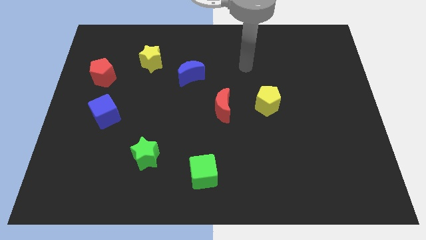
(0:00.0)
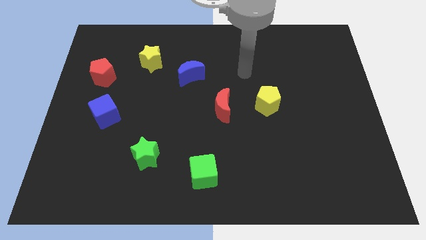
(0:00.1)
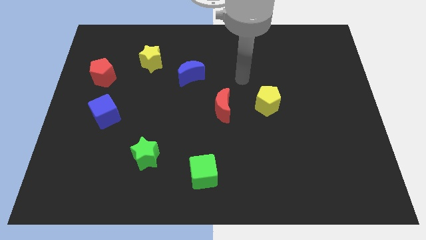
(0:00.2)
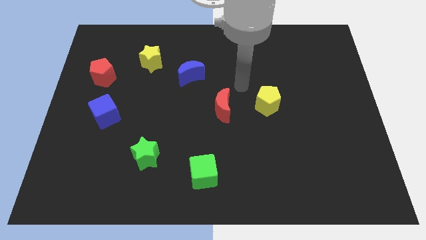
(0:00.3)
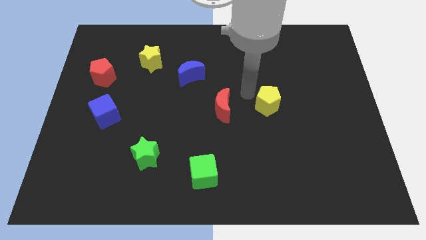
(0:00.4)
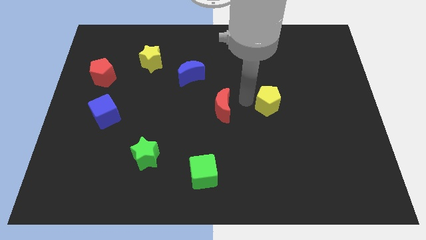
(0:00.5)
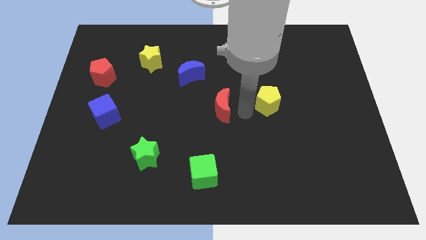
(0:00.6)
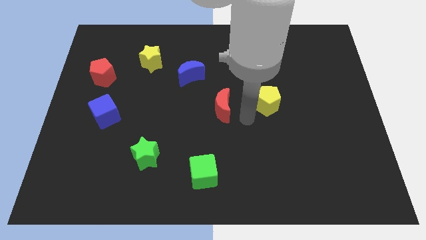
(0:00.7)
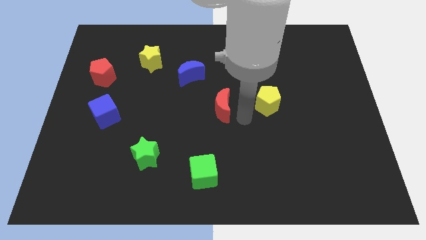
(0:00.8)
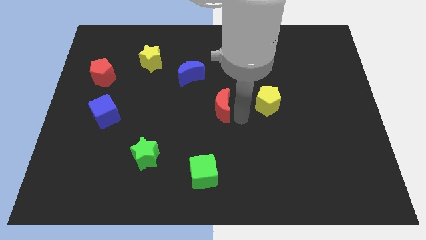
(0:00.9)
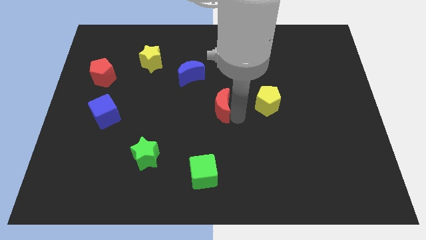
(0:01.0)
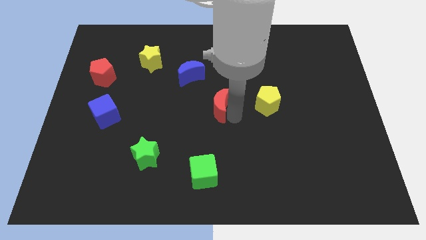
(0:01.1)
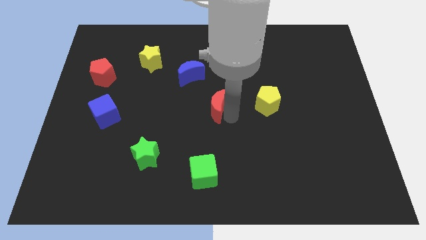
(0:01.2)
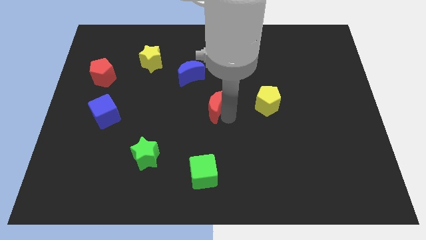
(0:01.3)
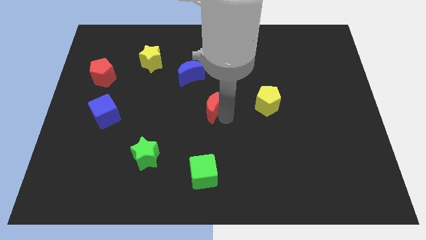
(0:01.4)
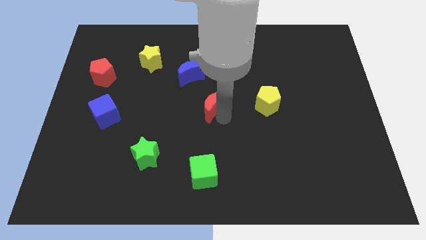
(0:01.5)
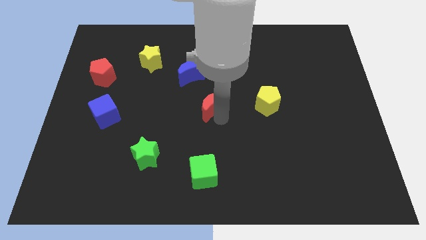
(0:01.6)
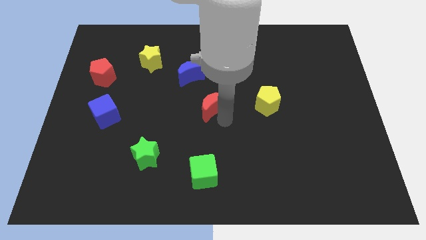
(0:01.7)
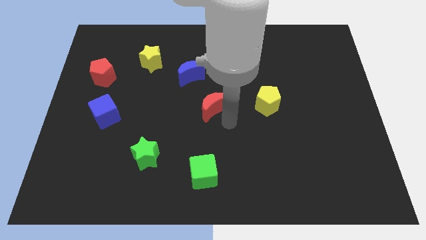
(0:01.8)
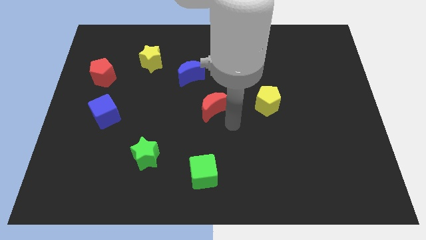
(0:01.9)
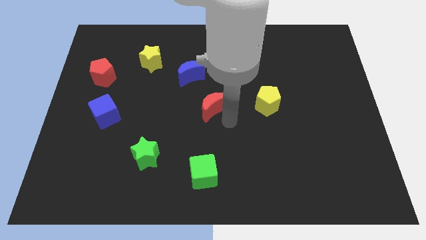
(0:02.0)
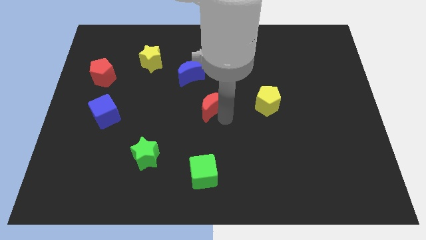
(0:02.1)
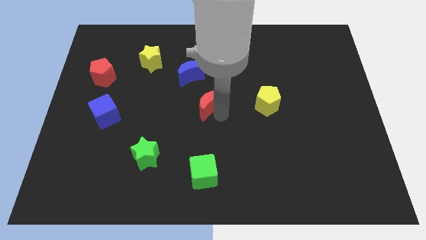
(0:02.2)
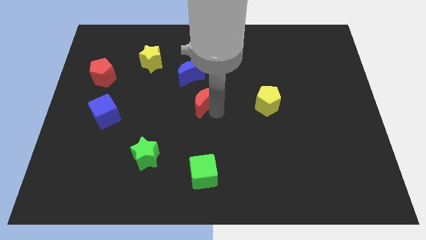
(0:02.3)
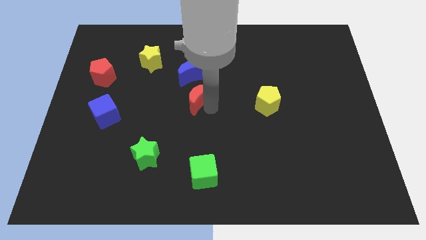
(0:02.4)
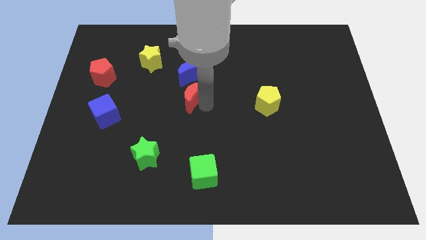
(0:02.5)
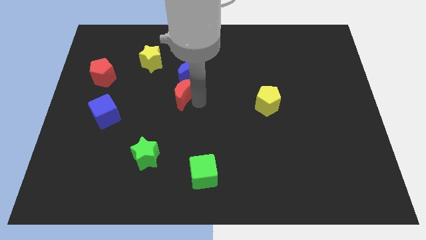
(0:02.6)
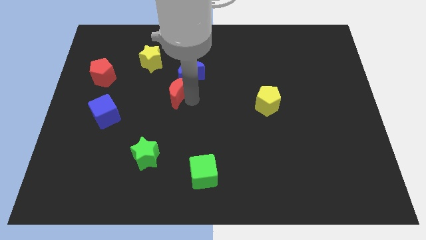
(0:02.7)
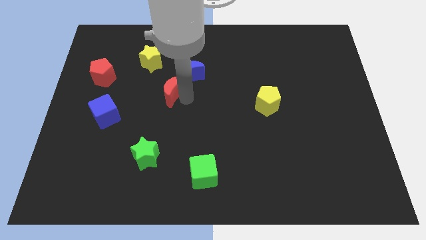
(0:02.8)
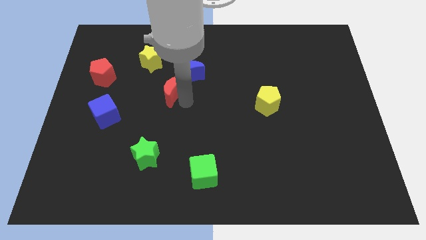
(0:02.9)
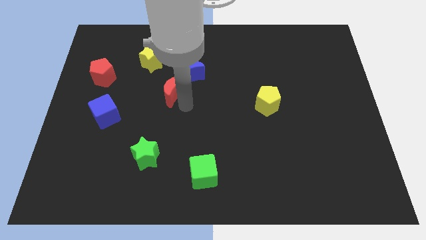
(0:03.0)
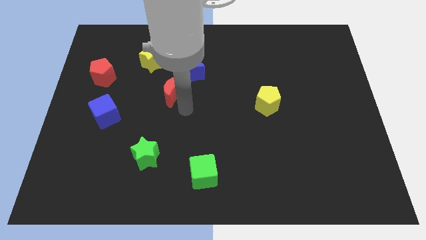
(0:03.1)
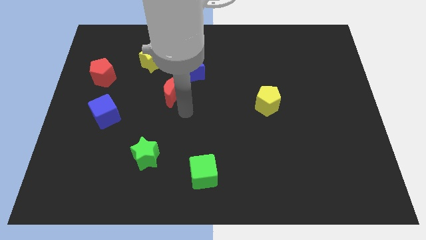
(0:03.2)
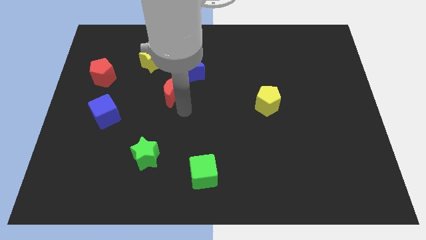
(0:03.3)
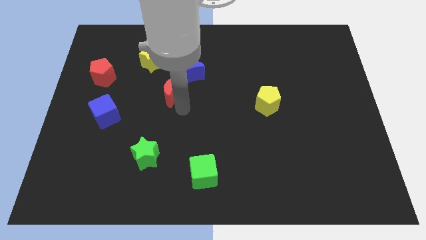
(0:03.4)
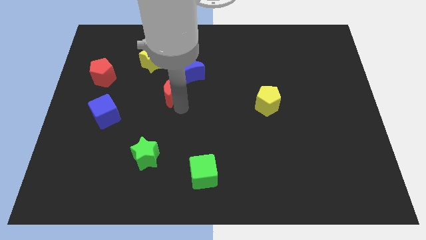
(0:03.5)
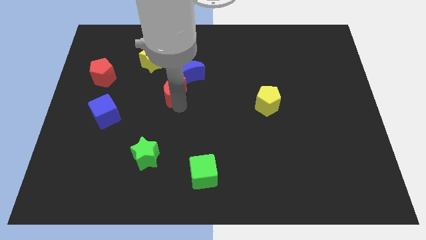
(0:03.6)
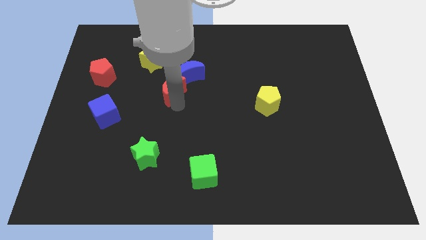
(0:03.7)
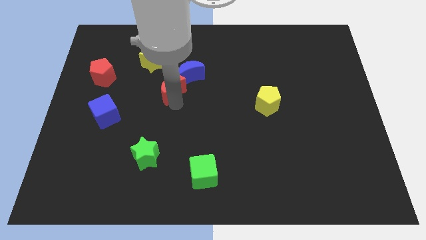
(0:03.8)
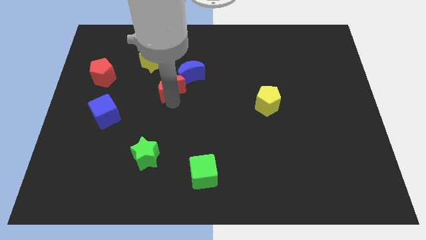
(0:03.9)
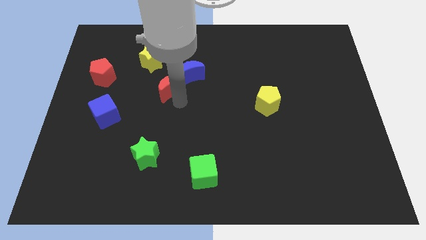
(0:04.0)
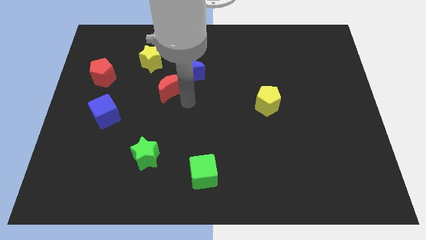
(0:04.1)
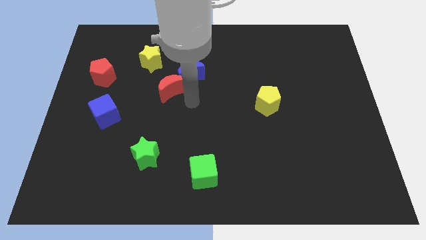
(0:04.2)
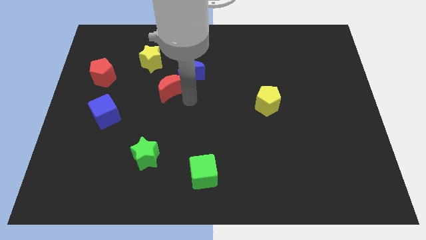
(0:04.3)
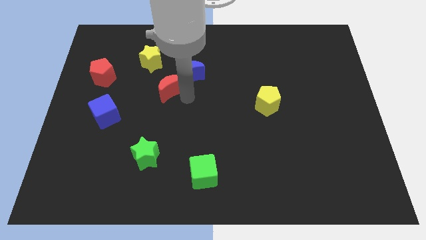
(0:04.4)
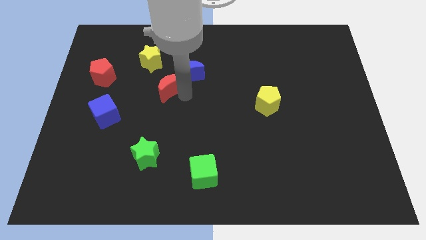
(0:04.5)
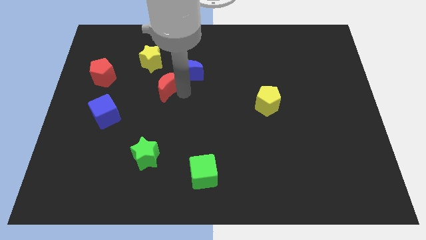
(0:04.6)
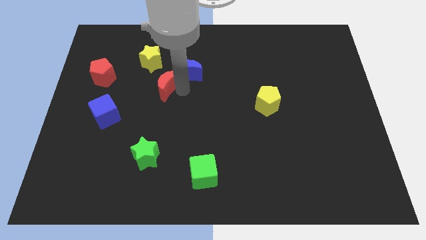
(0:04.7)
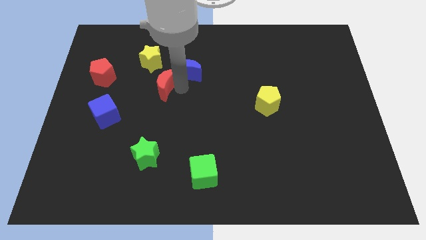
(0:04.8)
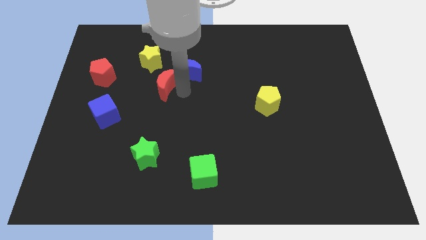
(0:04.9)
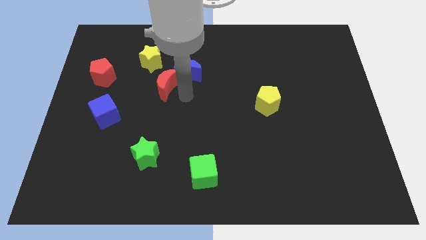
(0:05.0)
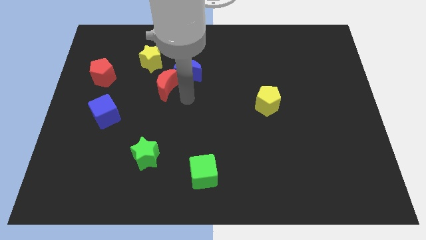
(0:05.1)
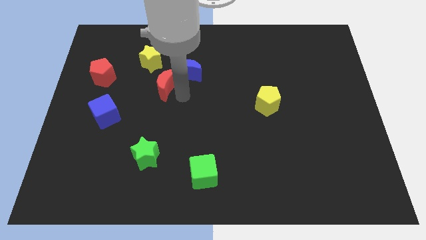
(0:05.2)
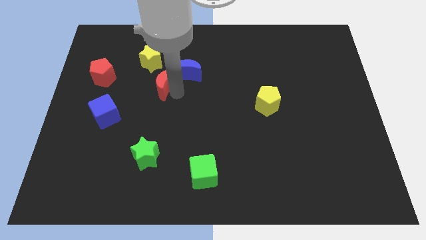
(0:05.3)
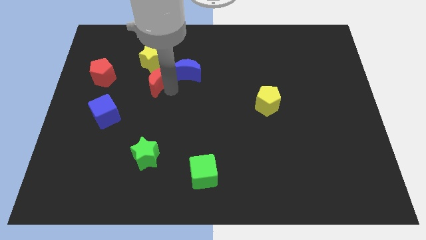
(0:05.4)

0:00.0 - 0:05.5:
push the red moon right of the red pentagon
